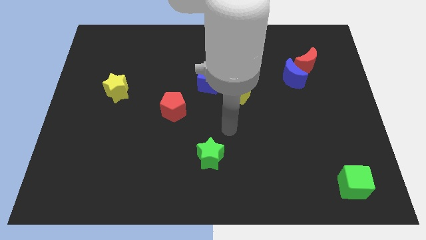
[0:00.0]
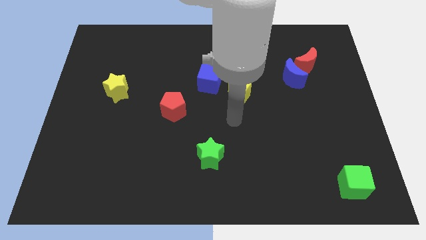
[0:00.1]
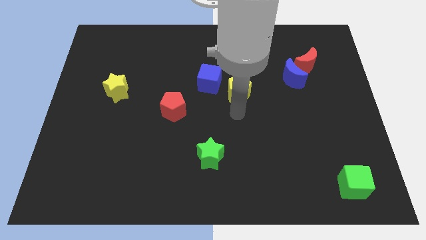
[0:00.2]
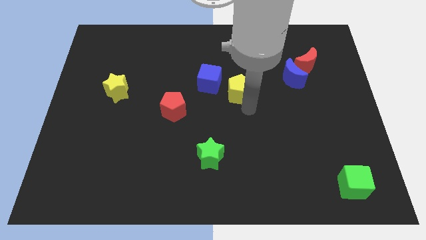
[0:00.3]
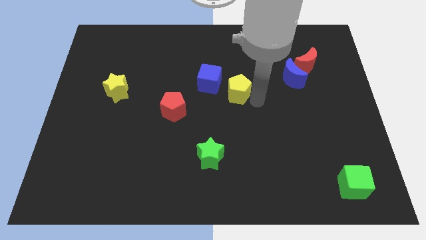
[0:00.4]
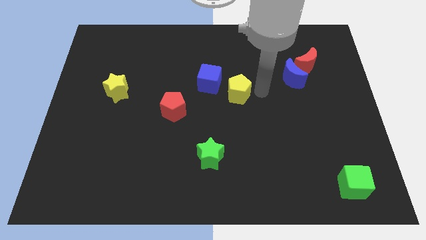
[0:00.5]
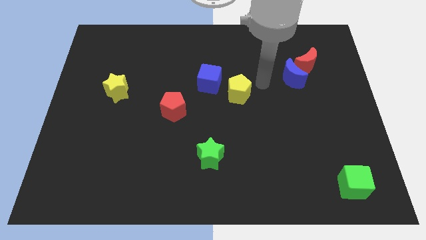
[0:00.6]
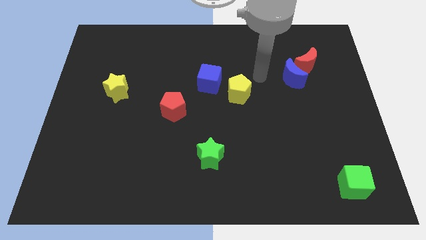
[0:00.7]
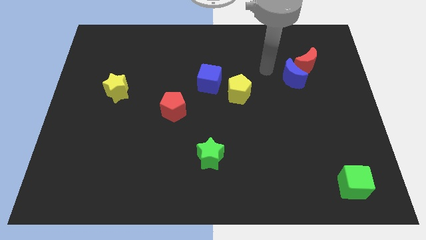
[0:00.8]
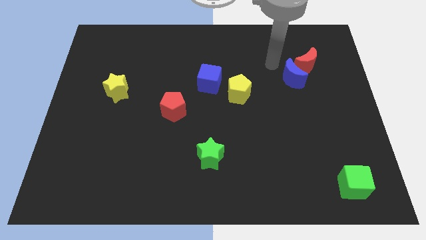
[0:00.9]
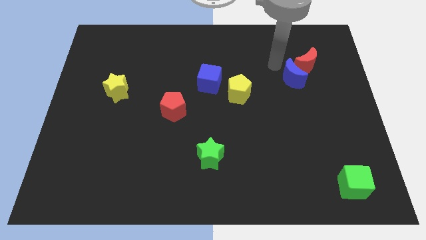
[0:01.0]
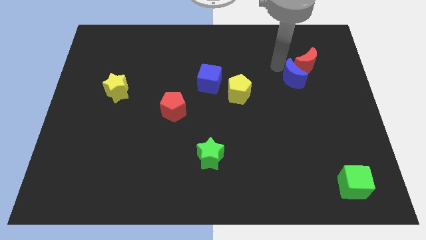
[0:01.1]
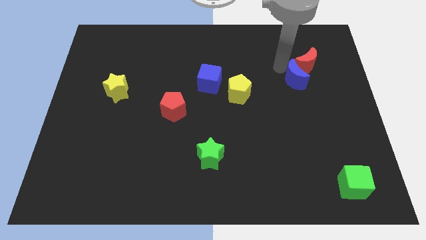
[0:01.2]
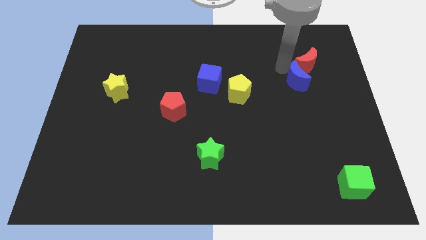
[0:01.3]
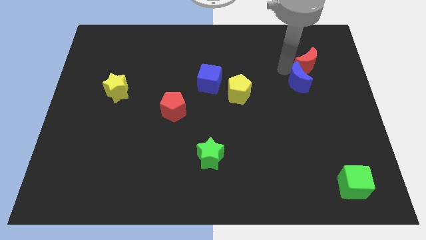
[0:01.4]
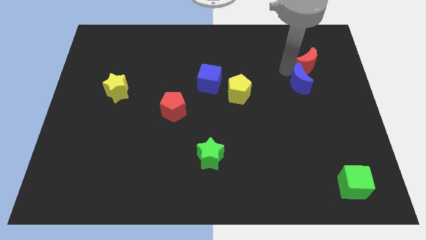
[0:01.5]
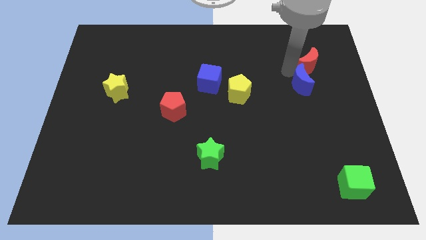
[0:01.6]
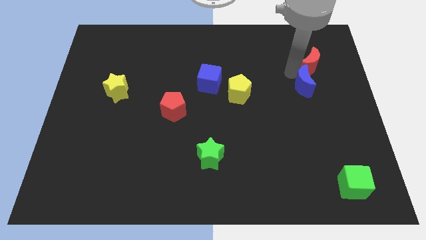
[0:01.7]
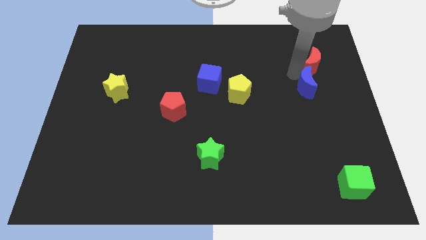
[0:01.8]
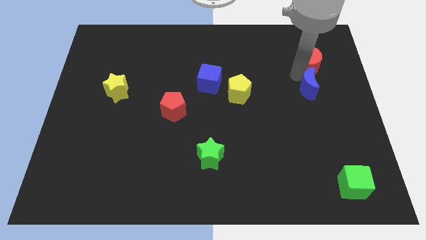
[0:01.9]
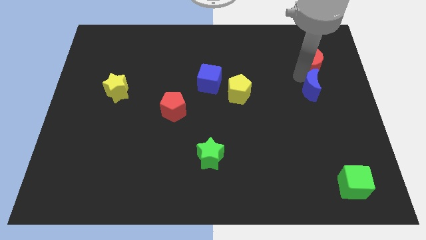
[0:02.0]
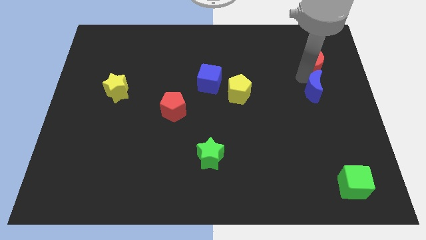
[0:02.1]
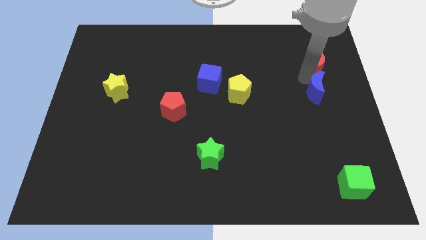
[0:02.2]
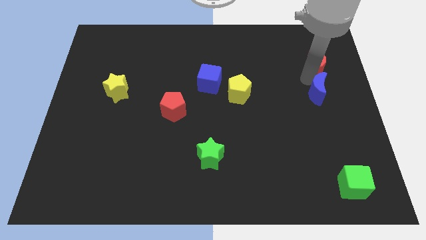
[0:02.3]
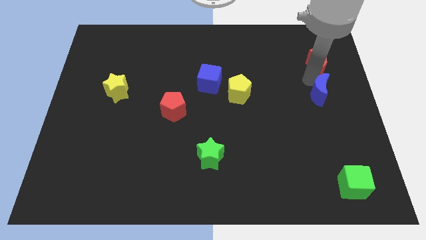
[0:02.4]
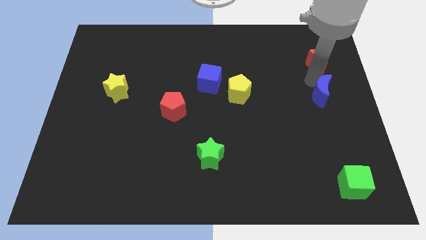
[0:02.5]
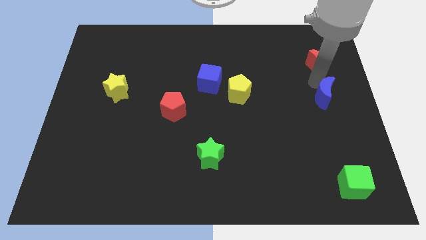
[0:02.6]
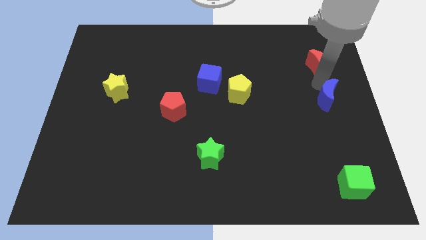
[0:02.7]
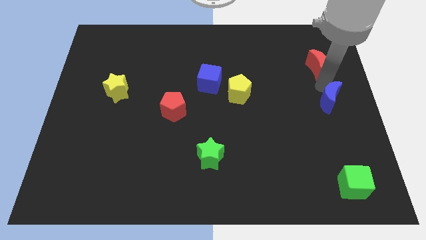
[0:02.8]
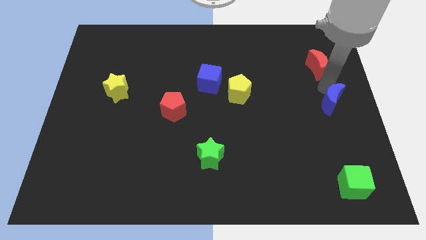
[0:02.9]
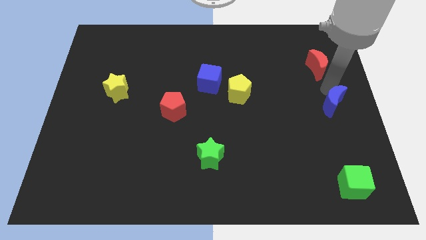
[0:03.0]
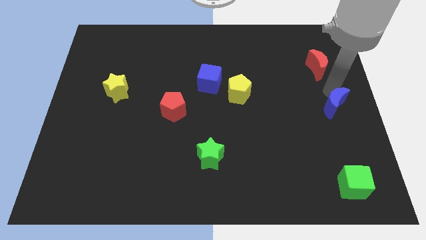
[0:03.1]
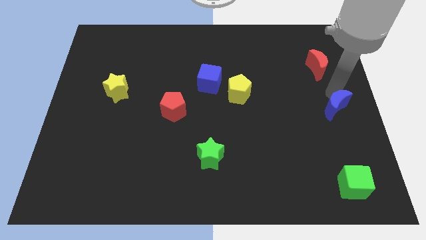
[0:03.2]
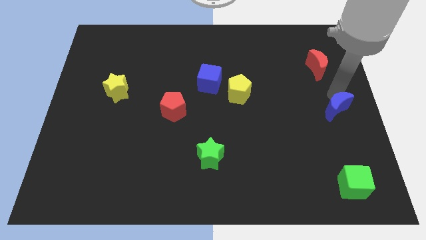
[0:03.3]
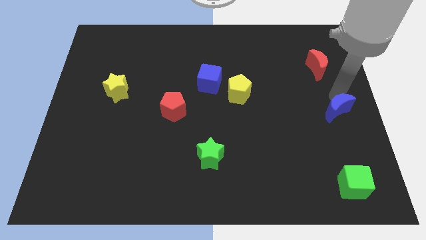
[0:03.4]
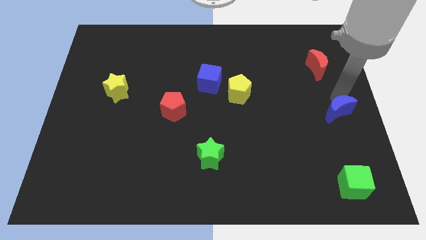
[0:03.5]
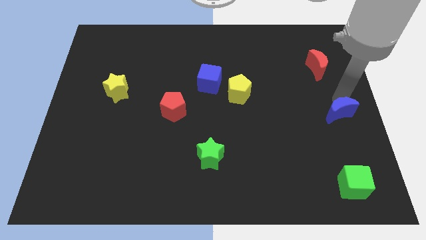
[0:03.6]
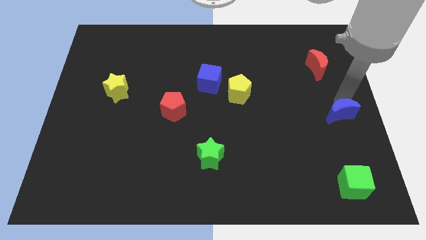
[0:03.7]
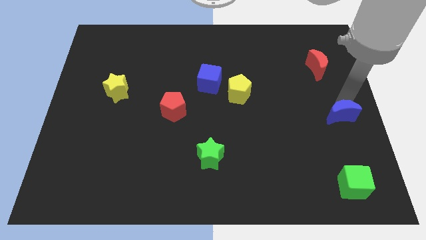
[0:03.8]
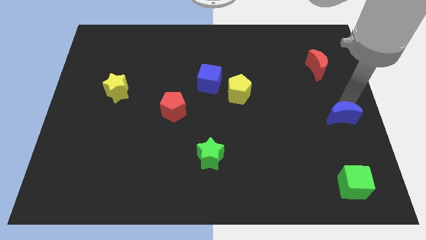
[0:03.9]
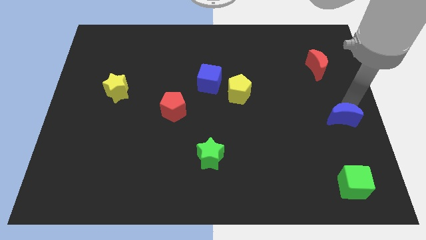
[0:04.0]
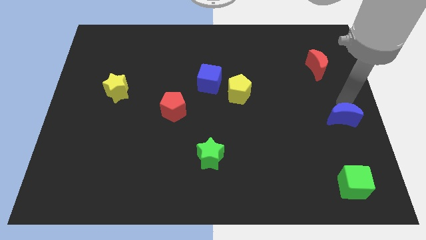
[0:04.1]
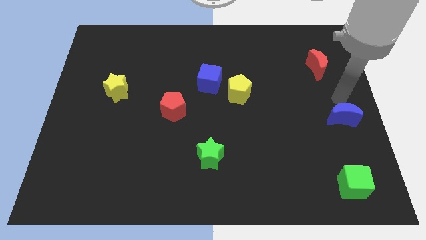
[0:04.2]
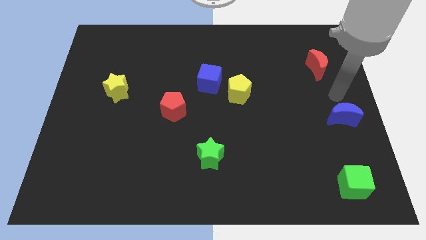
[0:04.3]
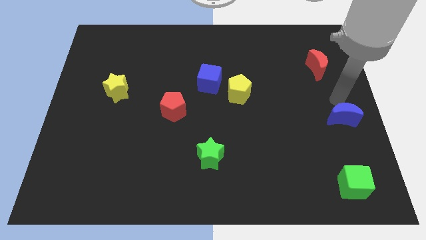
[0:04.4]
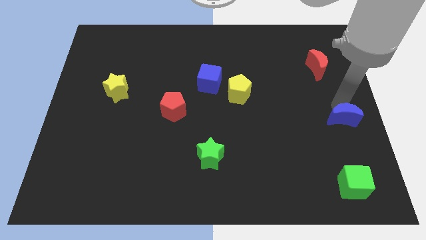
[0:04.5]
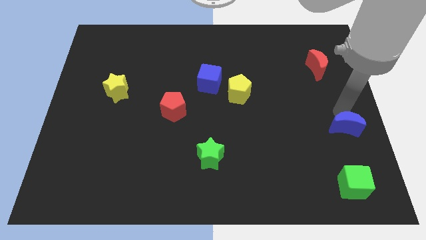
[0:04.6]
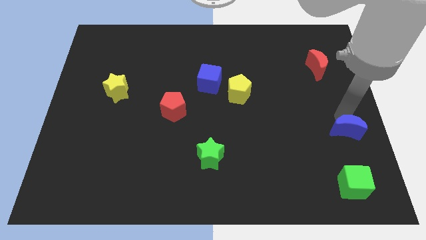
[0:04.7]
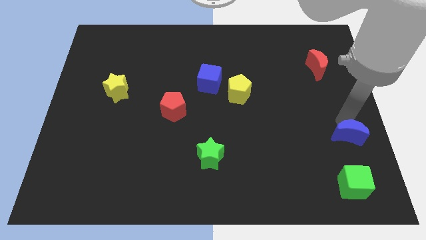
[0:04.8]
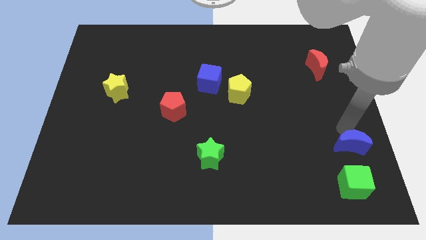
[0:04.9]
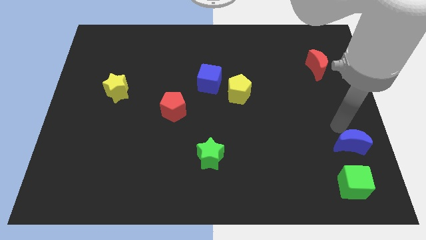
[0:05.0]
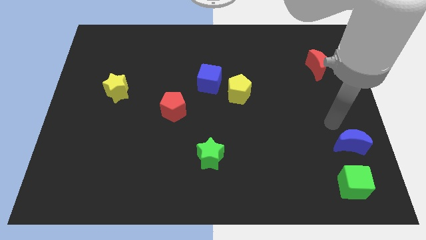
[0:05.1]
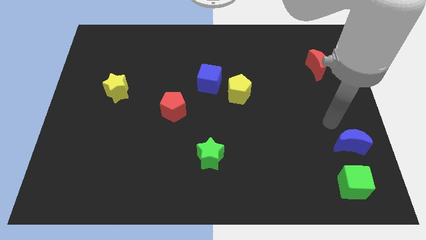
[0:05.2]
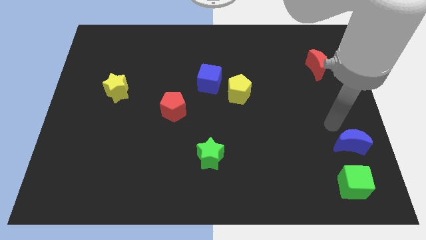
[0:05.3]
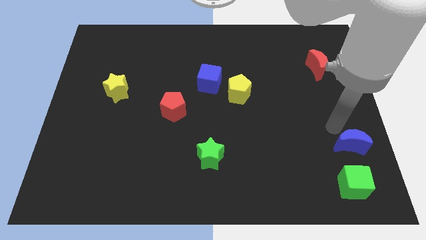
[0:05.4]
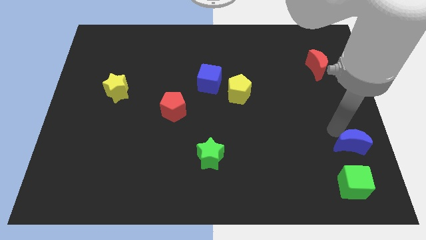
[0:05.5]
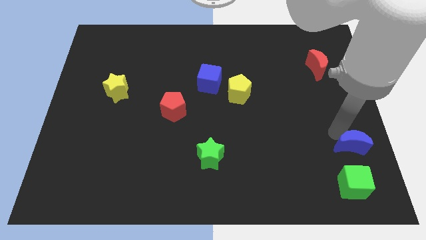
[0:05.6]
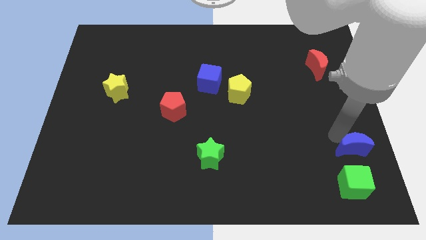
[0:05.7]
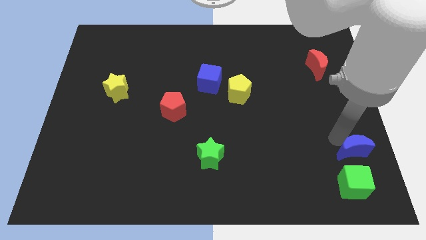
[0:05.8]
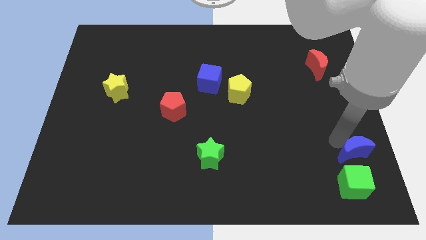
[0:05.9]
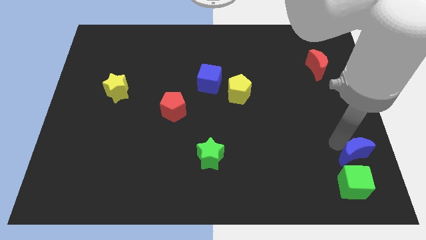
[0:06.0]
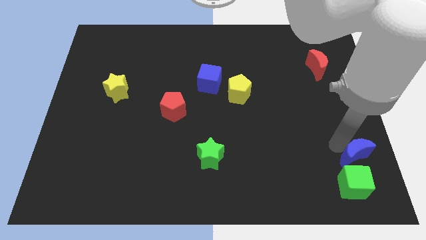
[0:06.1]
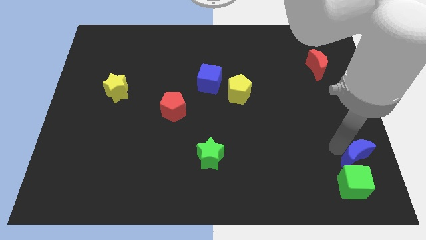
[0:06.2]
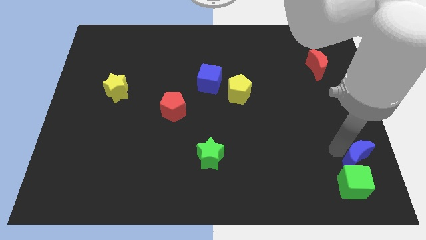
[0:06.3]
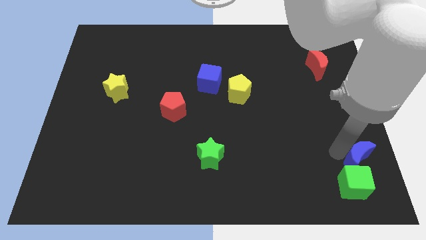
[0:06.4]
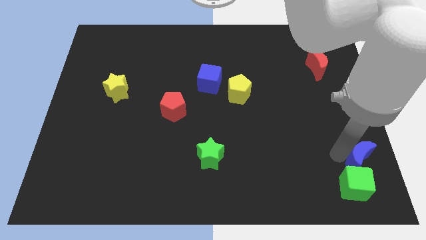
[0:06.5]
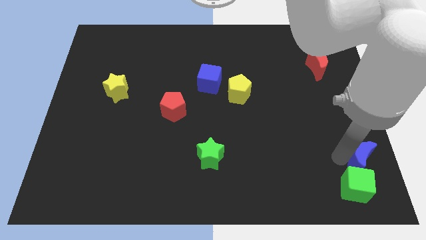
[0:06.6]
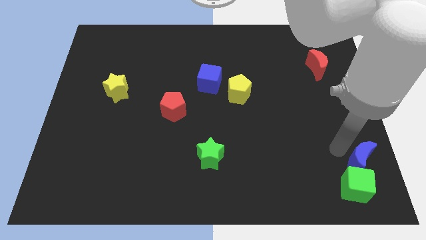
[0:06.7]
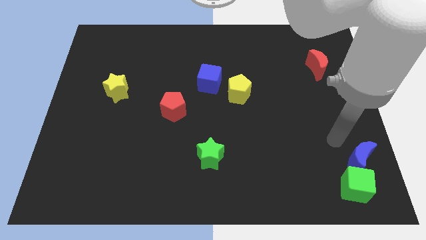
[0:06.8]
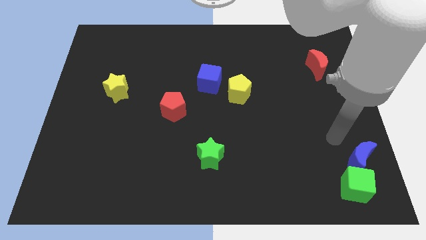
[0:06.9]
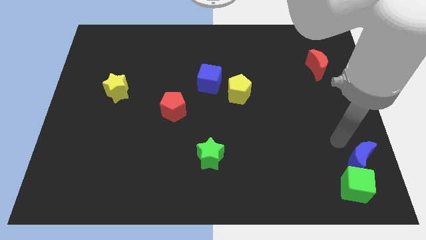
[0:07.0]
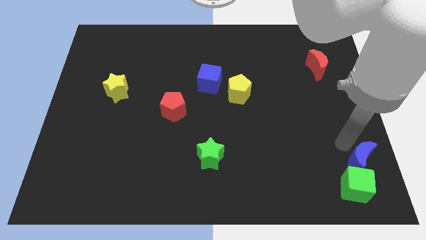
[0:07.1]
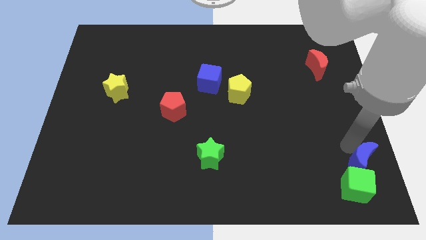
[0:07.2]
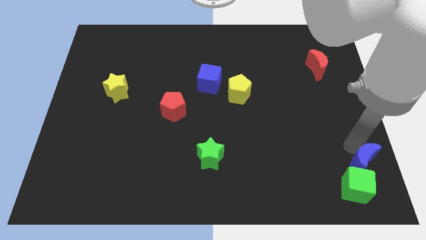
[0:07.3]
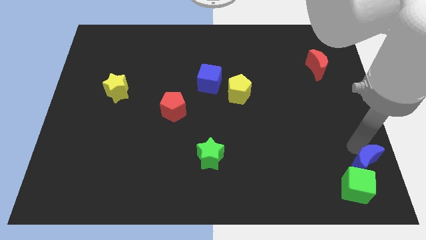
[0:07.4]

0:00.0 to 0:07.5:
push the blue moon to the bottom right corner
